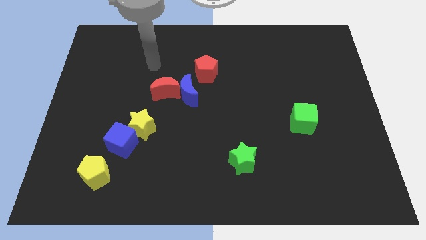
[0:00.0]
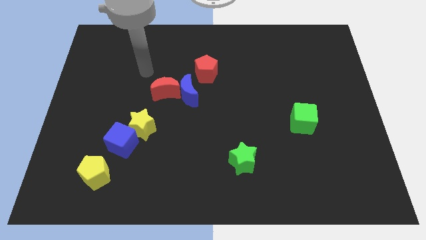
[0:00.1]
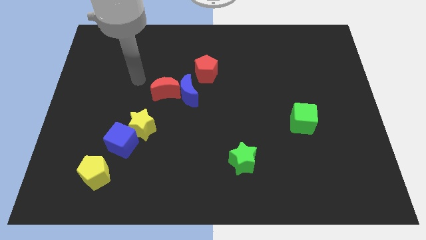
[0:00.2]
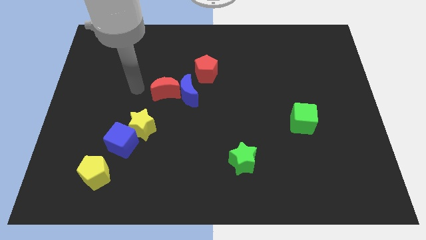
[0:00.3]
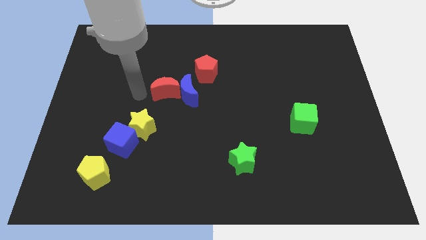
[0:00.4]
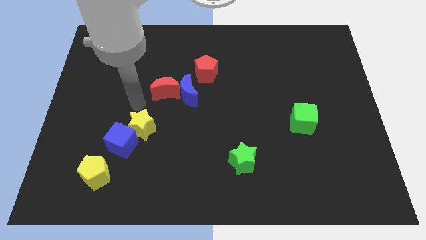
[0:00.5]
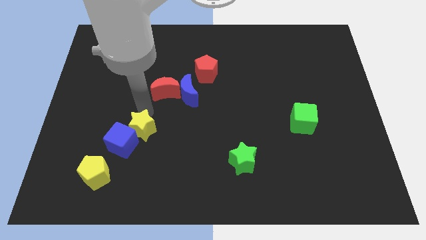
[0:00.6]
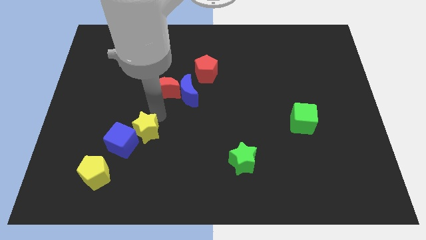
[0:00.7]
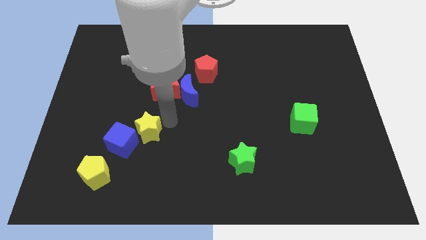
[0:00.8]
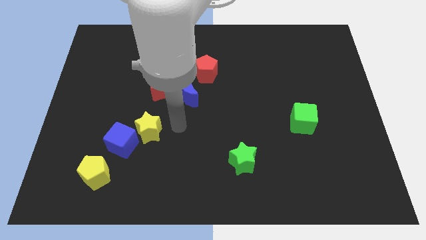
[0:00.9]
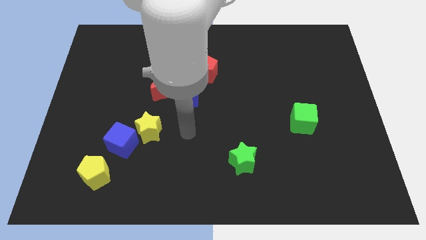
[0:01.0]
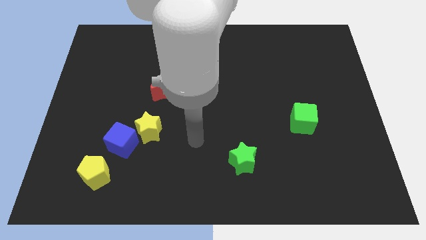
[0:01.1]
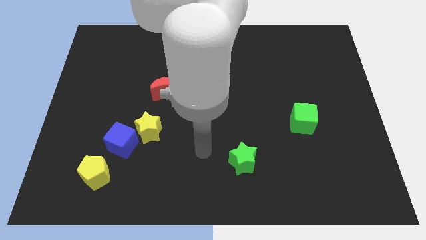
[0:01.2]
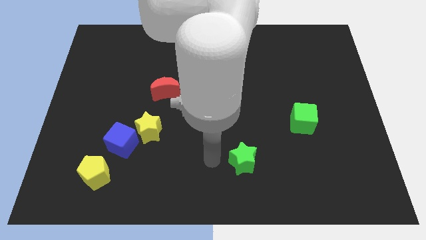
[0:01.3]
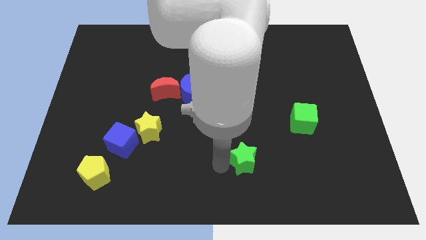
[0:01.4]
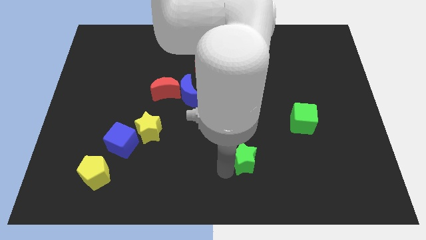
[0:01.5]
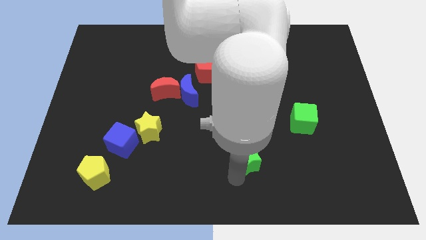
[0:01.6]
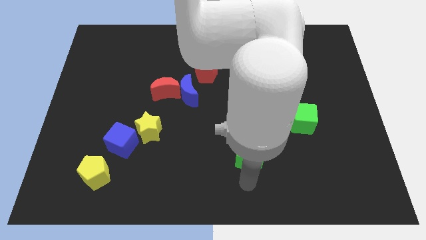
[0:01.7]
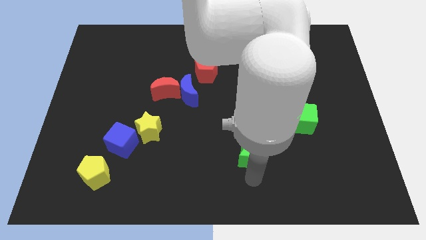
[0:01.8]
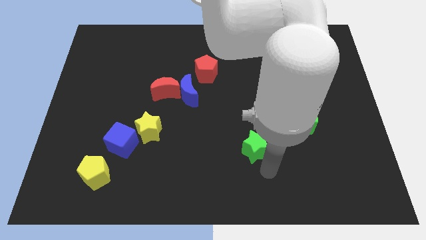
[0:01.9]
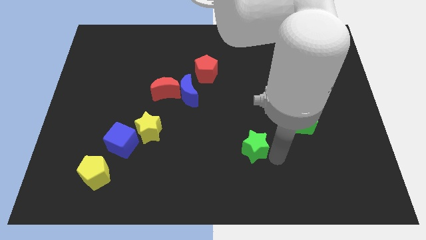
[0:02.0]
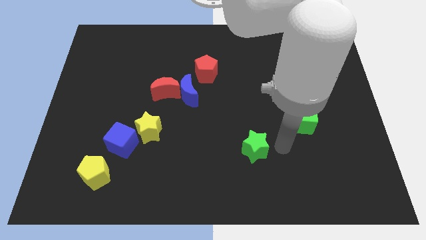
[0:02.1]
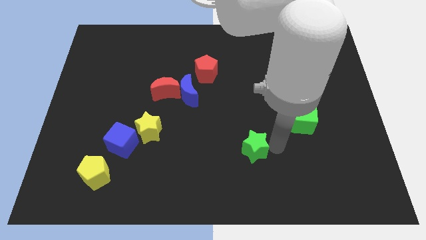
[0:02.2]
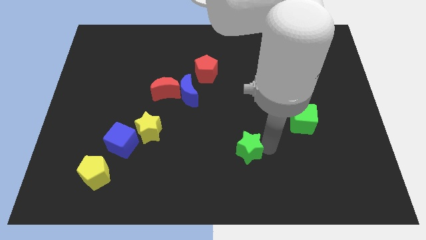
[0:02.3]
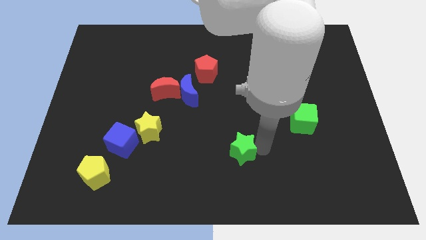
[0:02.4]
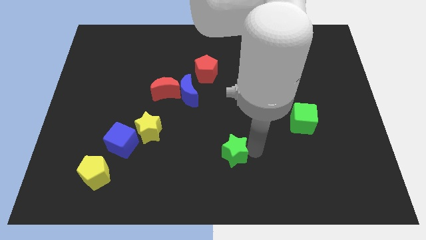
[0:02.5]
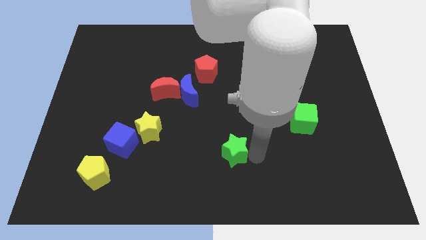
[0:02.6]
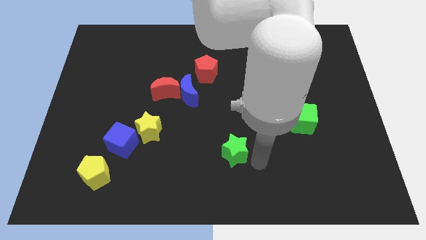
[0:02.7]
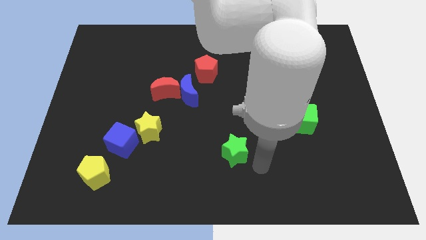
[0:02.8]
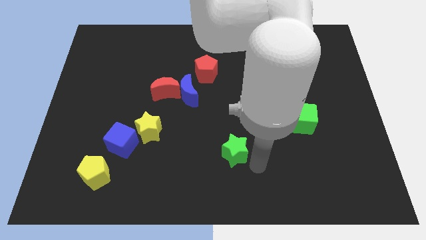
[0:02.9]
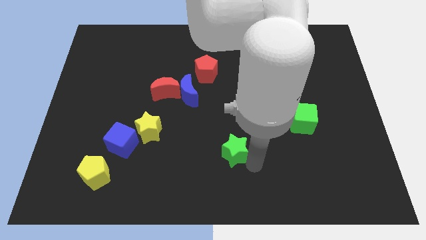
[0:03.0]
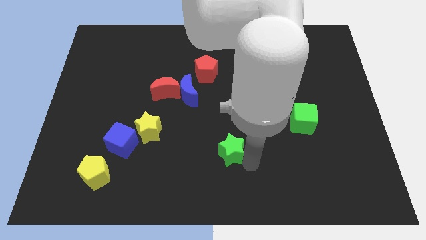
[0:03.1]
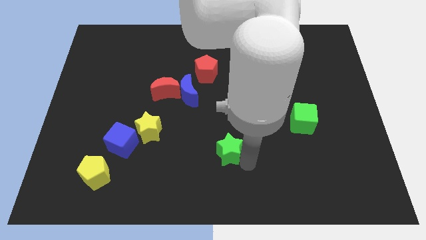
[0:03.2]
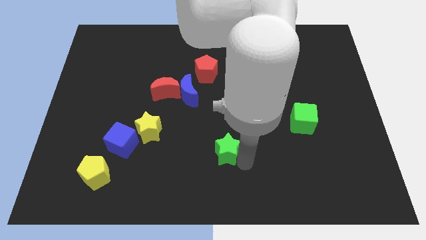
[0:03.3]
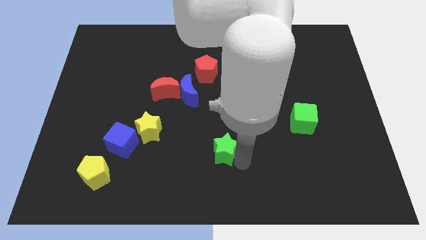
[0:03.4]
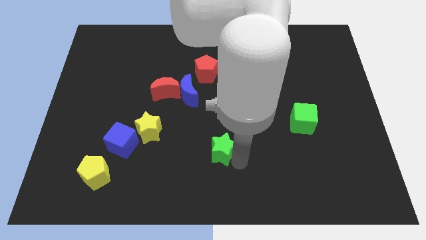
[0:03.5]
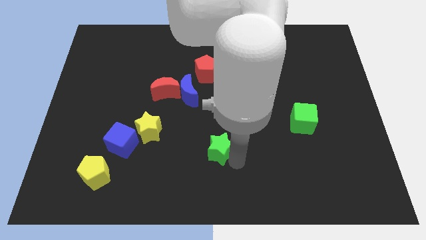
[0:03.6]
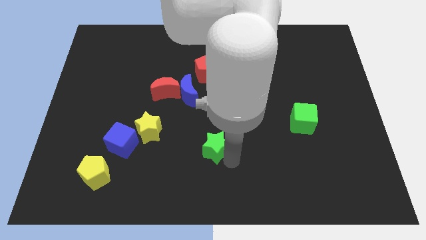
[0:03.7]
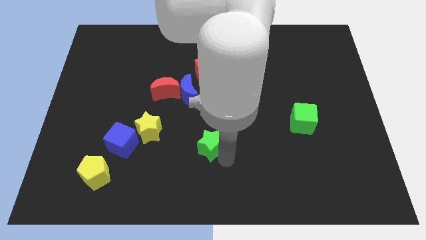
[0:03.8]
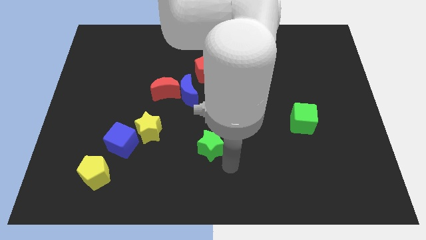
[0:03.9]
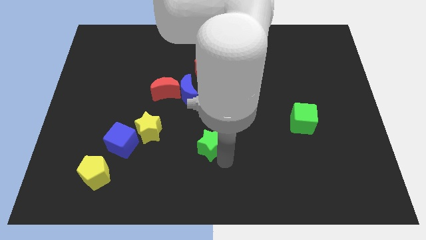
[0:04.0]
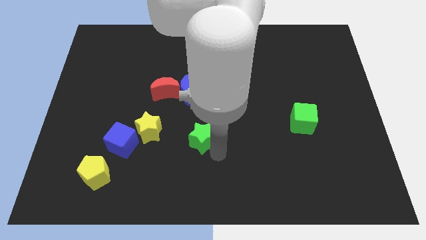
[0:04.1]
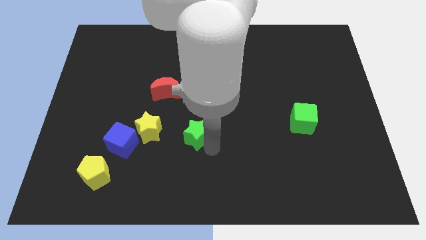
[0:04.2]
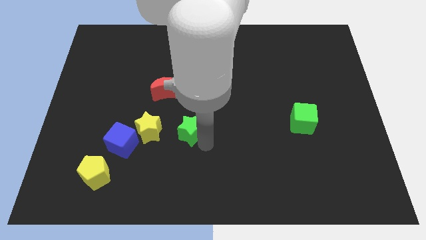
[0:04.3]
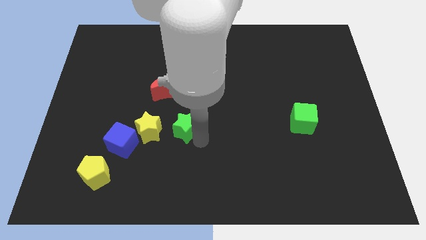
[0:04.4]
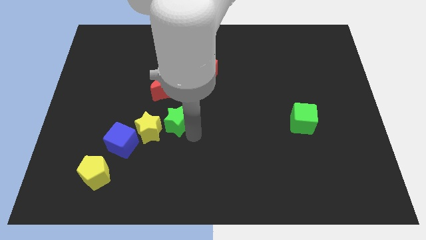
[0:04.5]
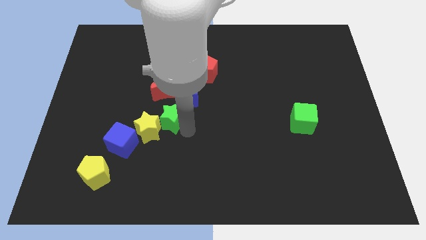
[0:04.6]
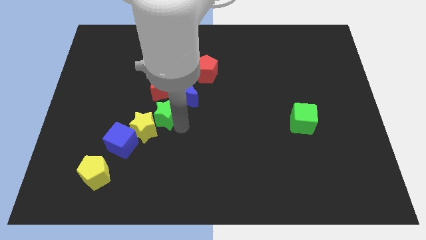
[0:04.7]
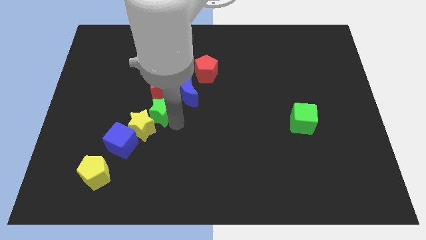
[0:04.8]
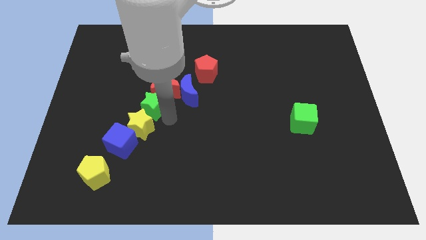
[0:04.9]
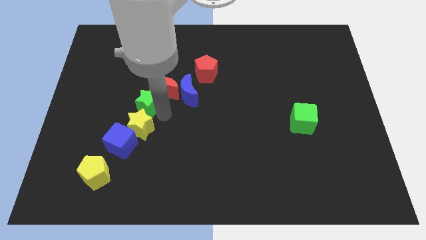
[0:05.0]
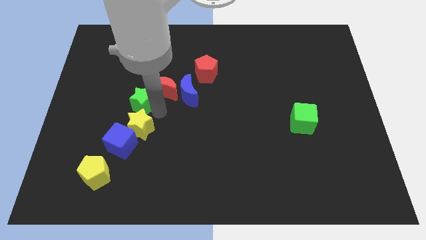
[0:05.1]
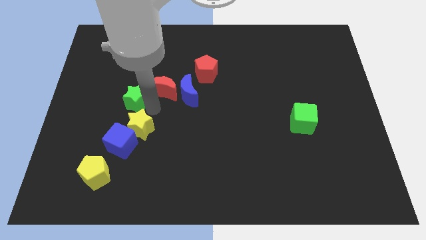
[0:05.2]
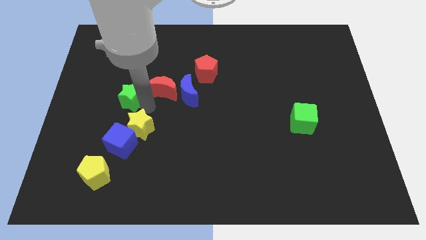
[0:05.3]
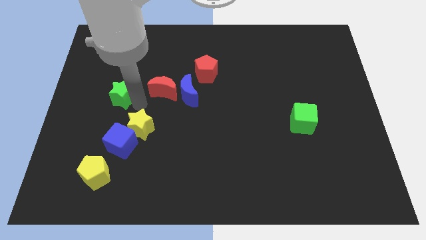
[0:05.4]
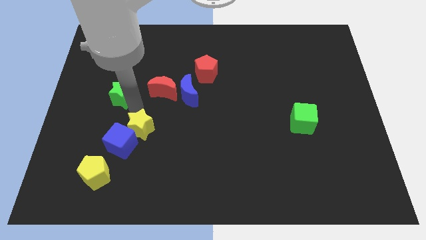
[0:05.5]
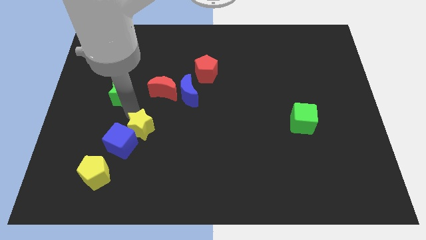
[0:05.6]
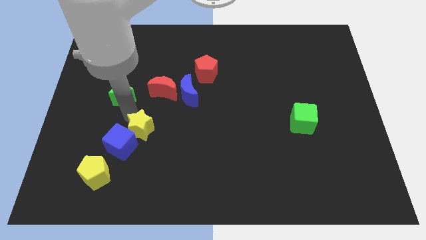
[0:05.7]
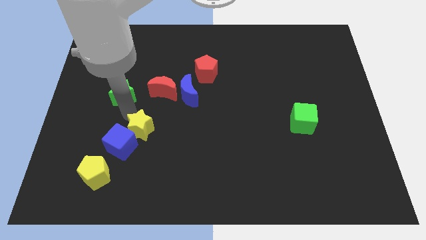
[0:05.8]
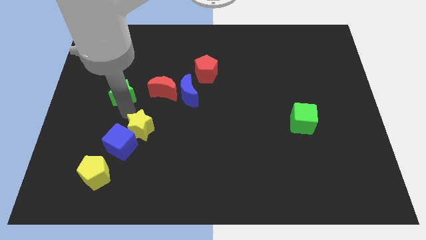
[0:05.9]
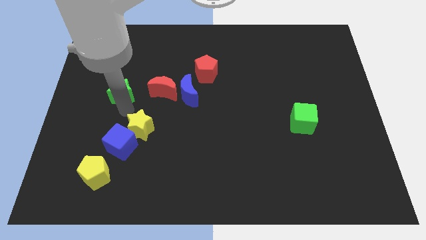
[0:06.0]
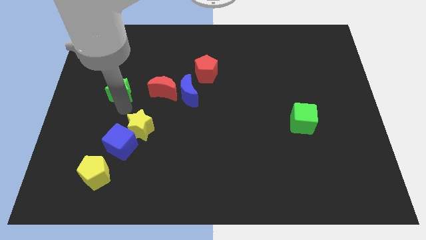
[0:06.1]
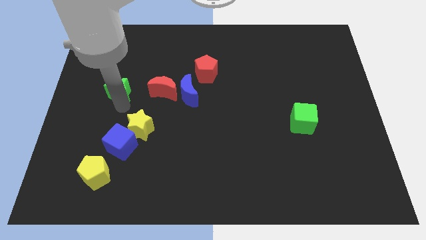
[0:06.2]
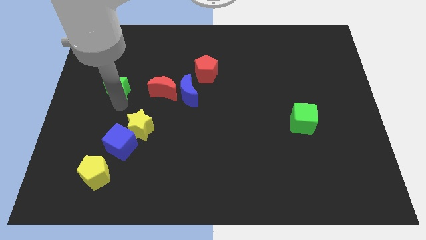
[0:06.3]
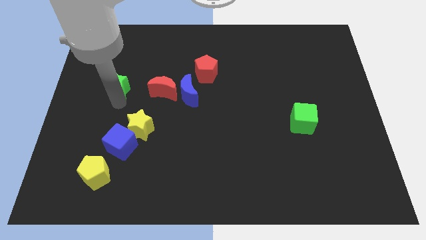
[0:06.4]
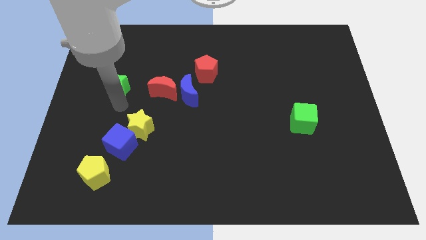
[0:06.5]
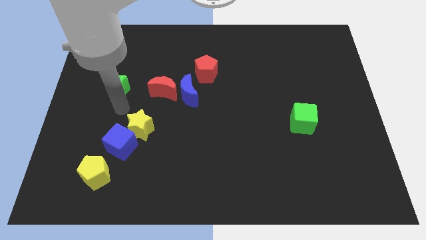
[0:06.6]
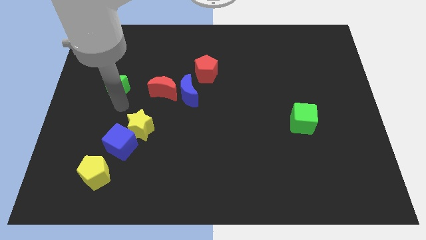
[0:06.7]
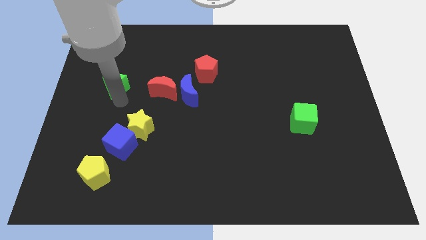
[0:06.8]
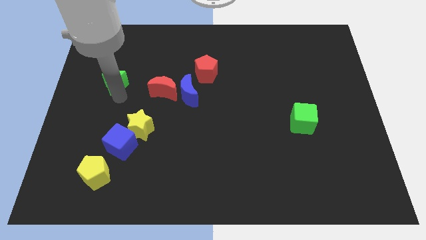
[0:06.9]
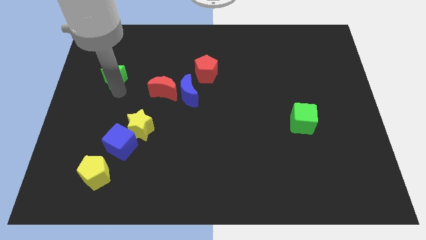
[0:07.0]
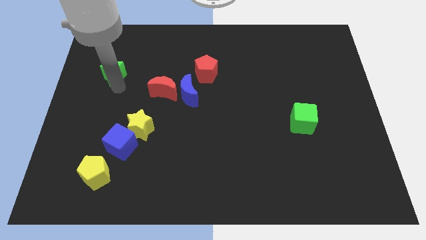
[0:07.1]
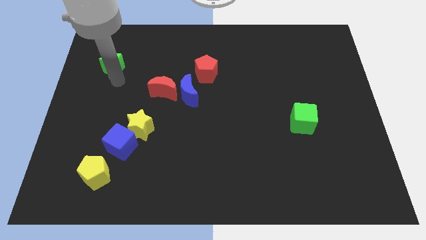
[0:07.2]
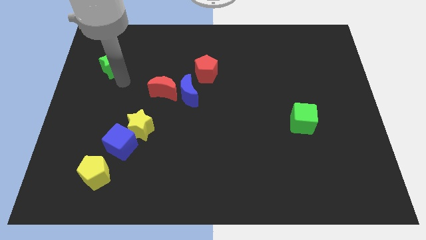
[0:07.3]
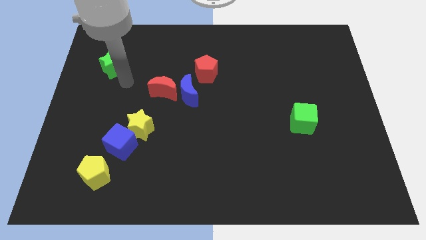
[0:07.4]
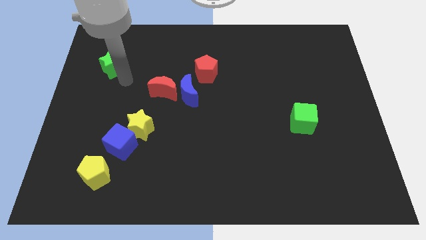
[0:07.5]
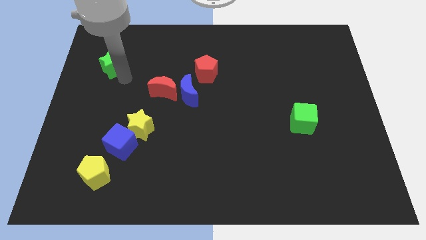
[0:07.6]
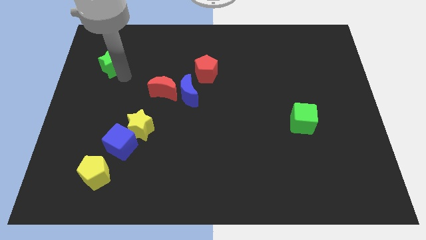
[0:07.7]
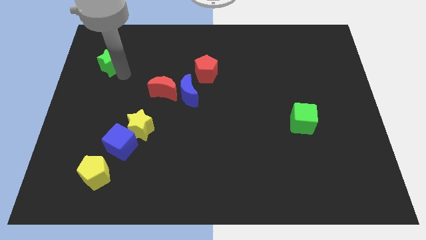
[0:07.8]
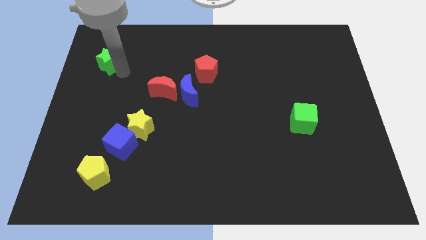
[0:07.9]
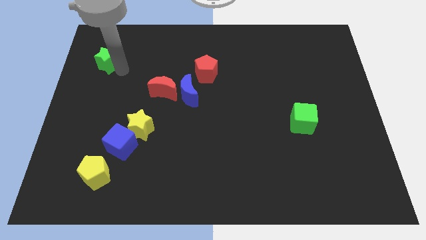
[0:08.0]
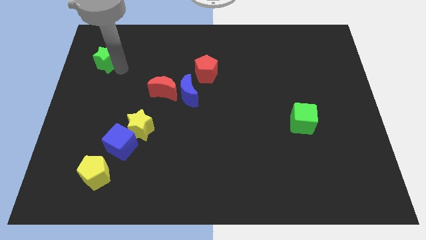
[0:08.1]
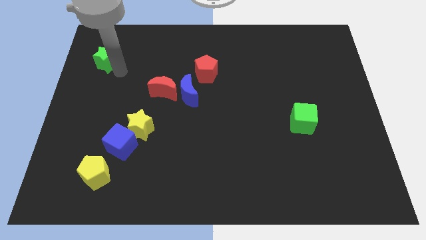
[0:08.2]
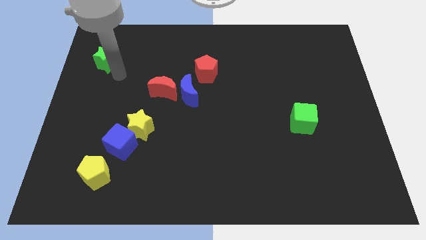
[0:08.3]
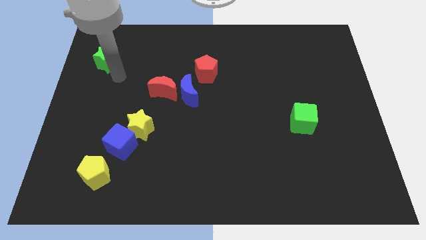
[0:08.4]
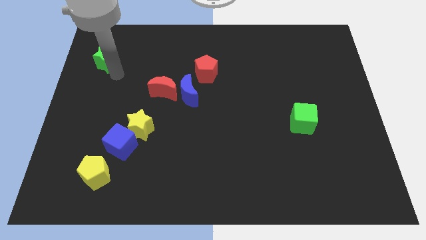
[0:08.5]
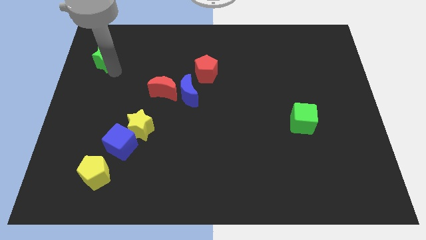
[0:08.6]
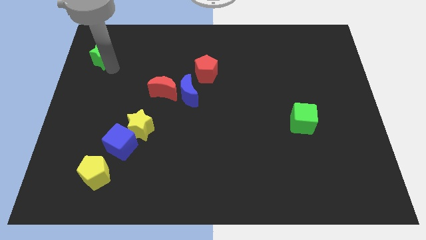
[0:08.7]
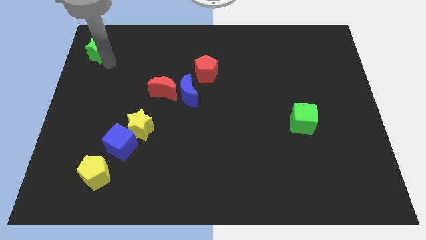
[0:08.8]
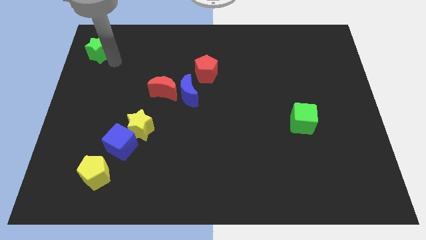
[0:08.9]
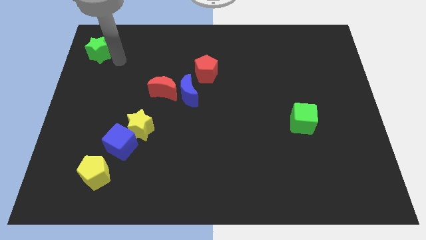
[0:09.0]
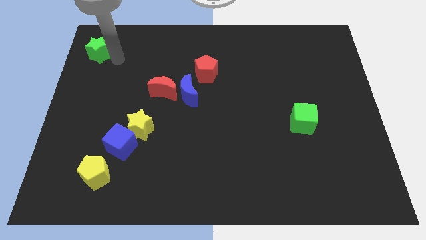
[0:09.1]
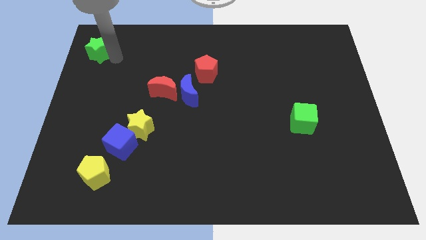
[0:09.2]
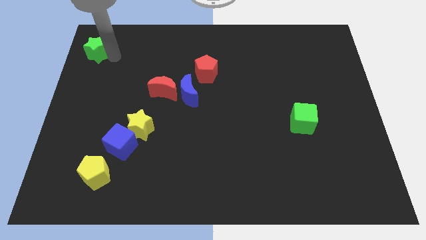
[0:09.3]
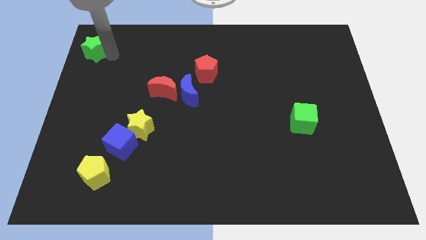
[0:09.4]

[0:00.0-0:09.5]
slide the green star to the top left
